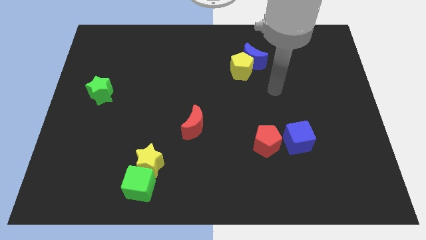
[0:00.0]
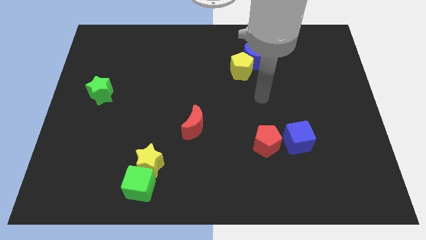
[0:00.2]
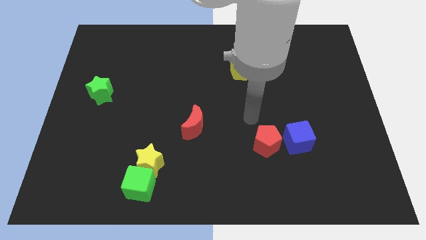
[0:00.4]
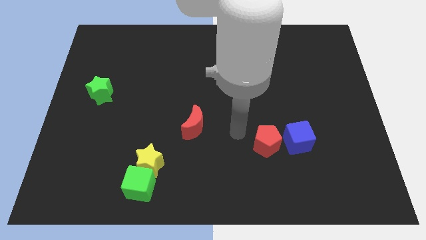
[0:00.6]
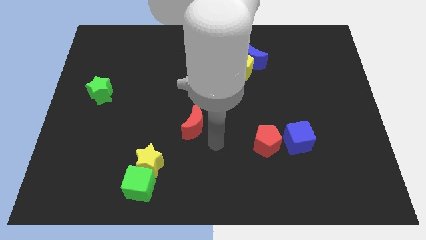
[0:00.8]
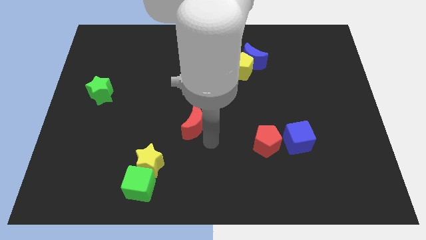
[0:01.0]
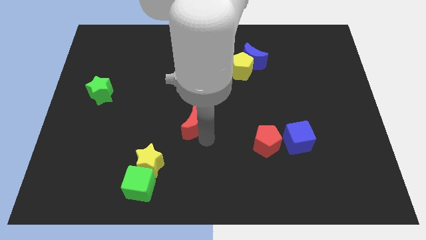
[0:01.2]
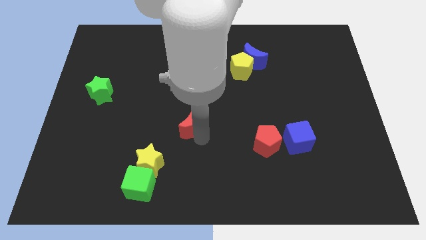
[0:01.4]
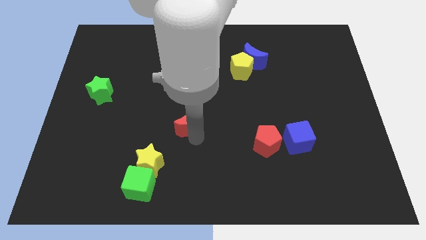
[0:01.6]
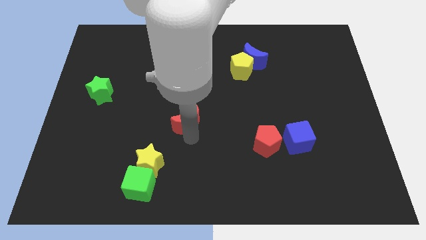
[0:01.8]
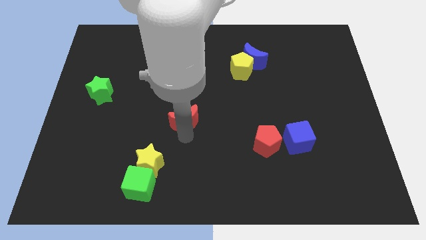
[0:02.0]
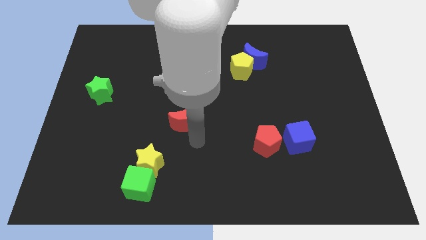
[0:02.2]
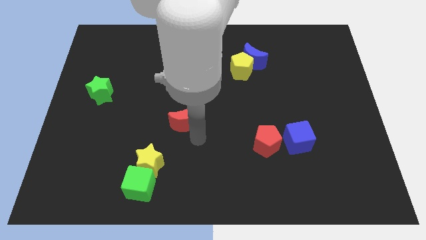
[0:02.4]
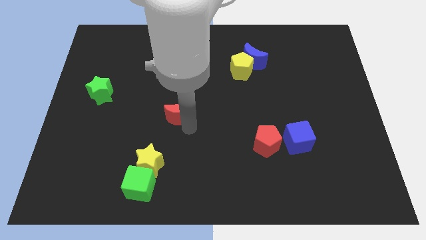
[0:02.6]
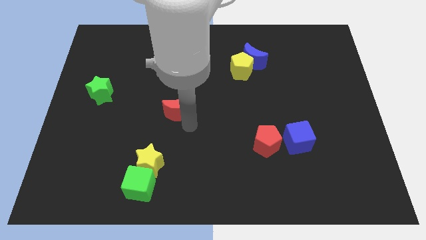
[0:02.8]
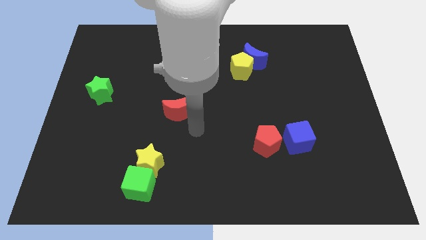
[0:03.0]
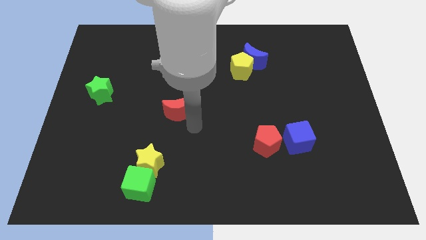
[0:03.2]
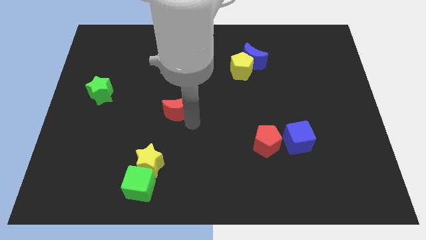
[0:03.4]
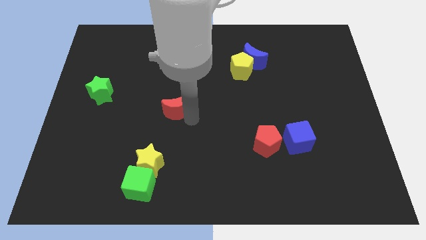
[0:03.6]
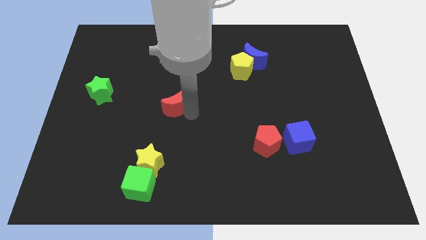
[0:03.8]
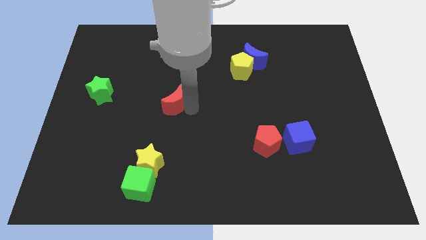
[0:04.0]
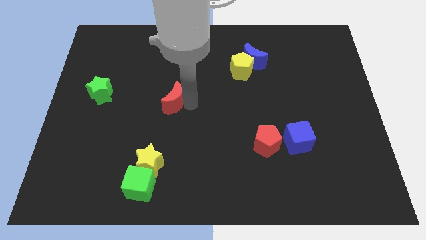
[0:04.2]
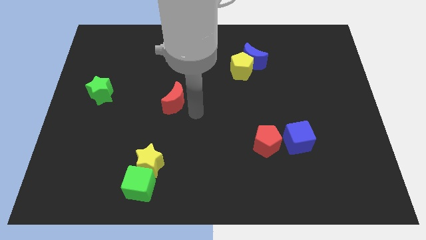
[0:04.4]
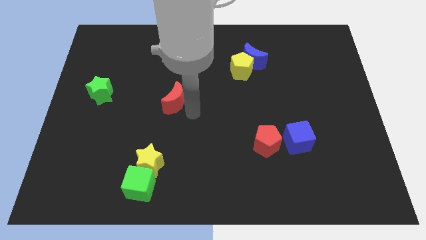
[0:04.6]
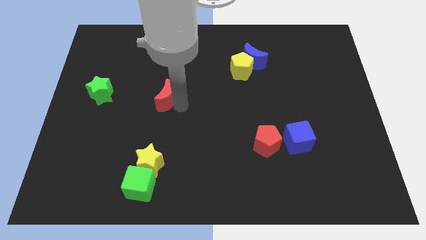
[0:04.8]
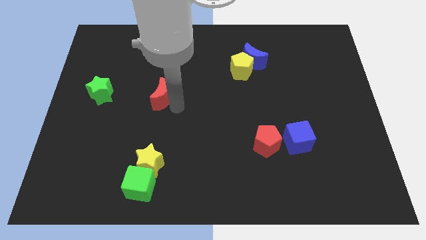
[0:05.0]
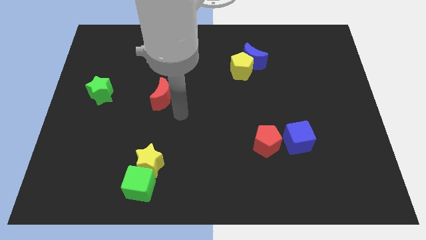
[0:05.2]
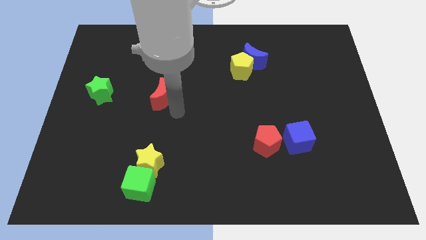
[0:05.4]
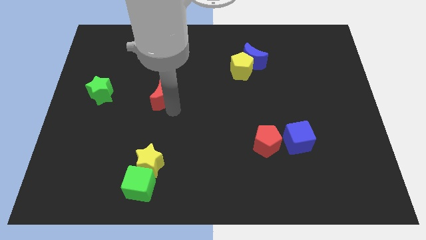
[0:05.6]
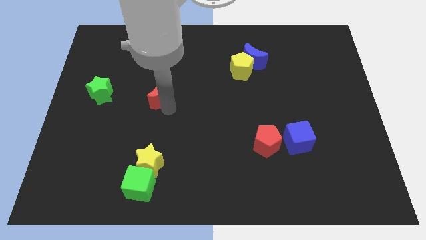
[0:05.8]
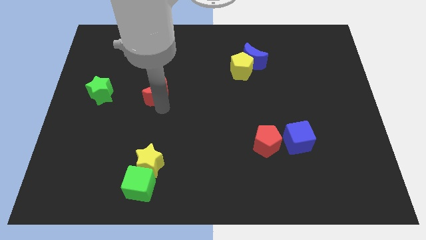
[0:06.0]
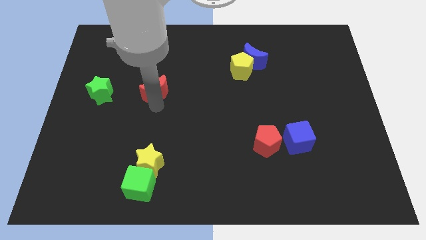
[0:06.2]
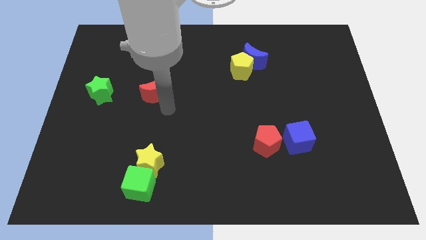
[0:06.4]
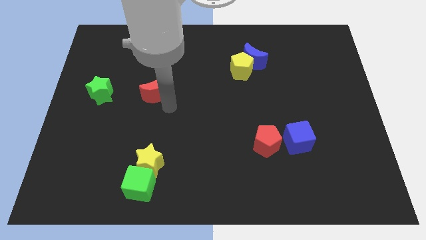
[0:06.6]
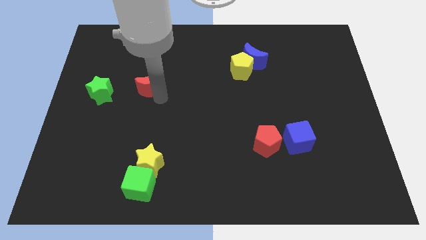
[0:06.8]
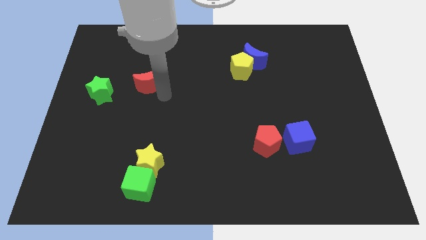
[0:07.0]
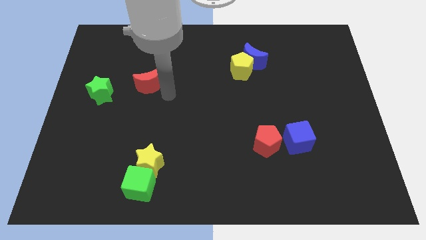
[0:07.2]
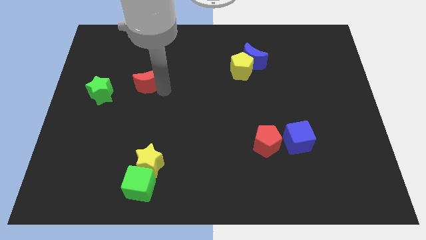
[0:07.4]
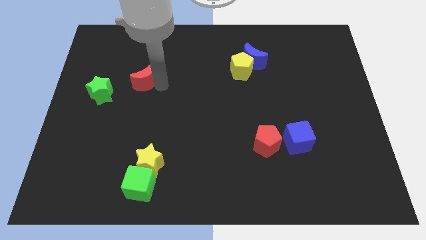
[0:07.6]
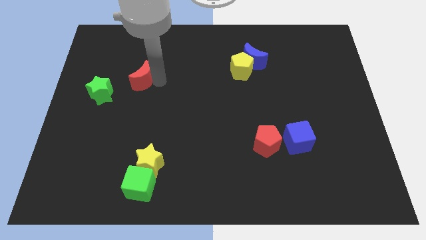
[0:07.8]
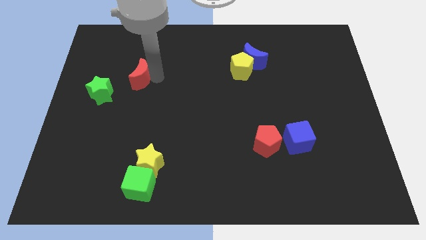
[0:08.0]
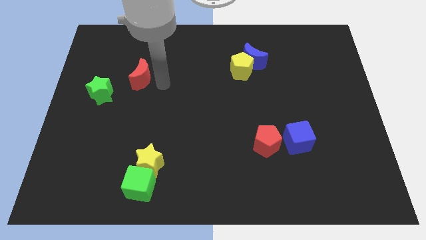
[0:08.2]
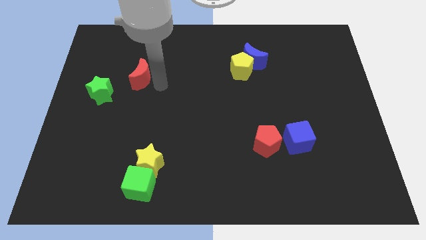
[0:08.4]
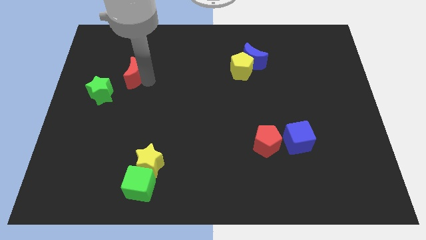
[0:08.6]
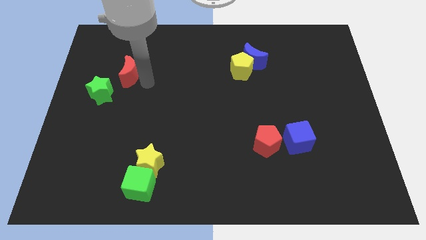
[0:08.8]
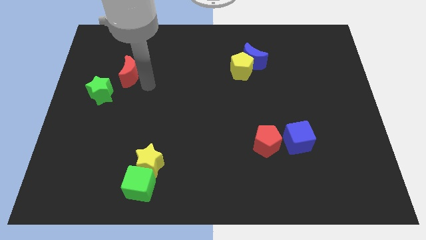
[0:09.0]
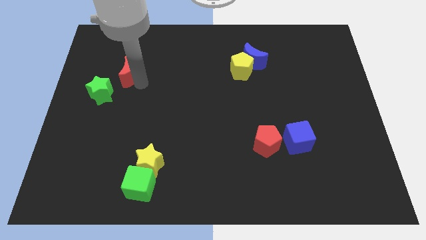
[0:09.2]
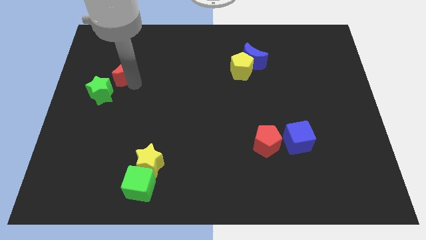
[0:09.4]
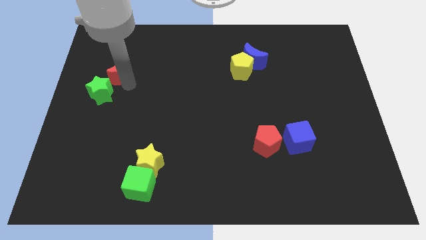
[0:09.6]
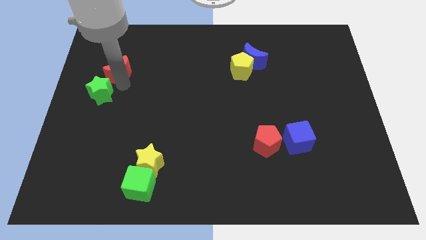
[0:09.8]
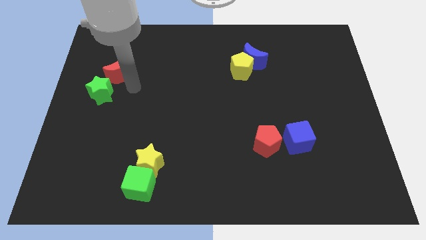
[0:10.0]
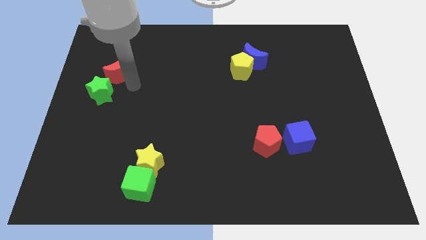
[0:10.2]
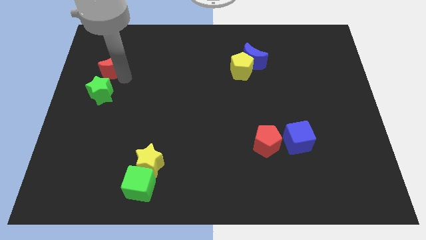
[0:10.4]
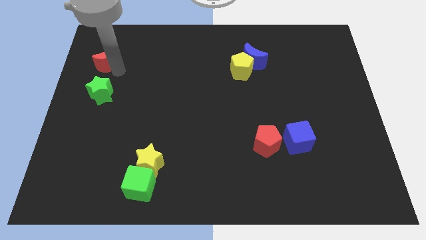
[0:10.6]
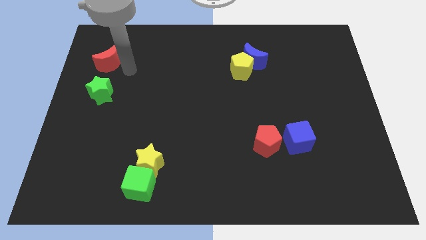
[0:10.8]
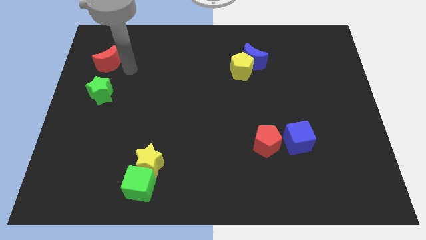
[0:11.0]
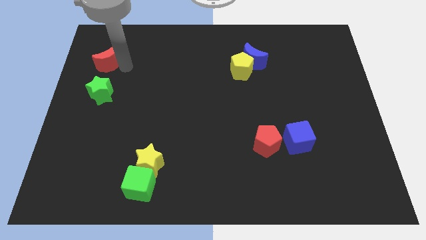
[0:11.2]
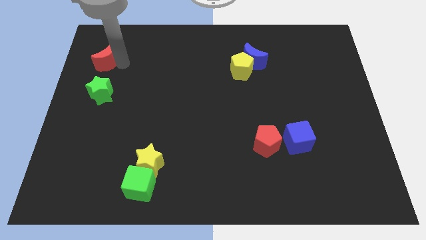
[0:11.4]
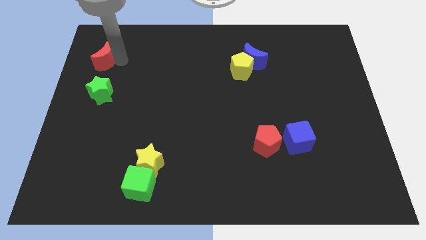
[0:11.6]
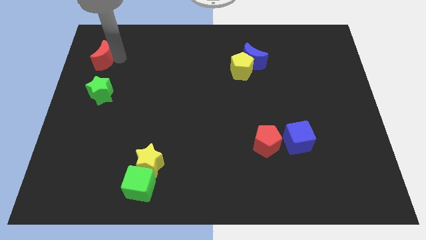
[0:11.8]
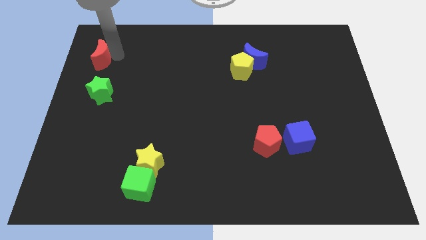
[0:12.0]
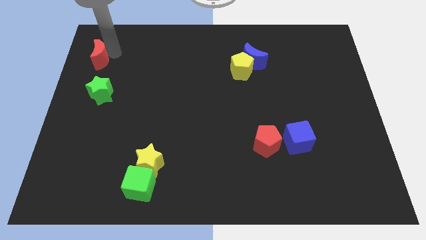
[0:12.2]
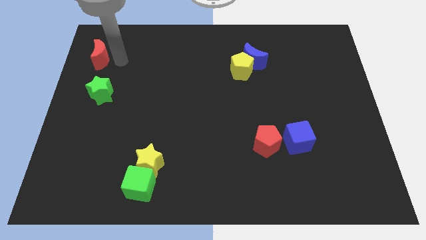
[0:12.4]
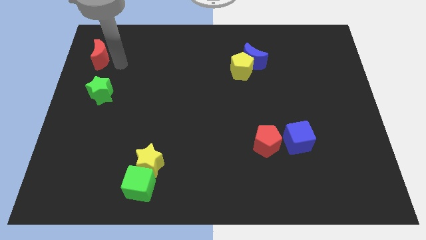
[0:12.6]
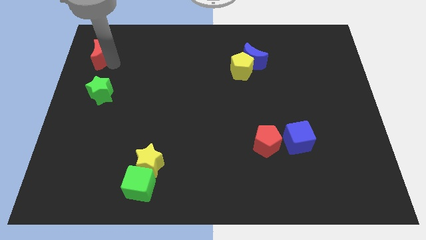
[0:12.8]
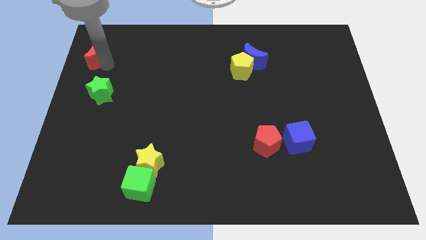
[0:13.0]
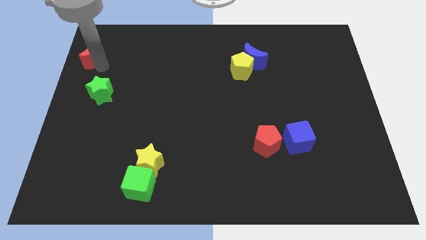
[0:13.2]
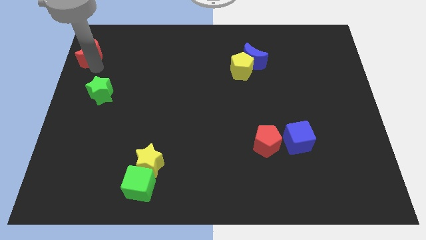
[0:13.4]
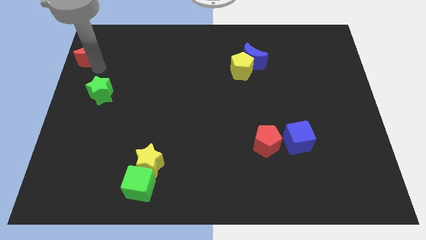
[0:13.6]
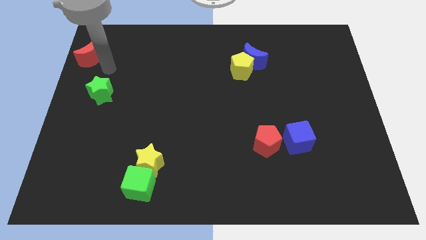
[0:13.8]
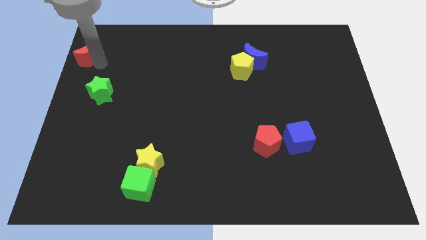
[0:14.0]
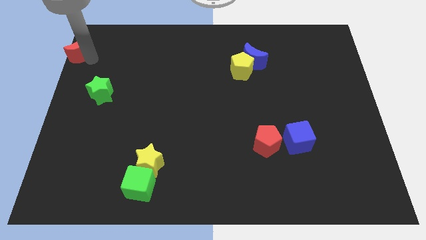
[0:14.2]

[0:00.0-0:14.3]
slide the red moon to the top left corner

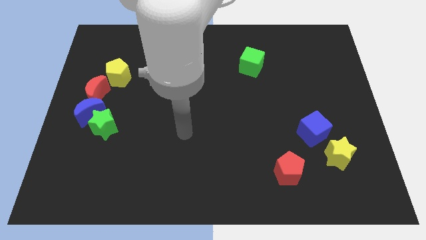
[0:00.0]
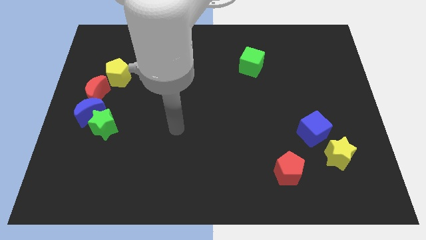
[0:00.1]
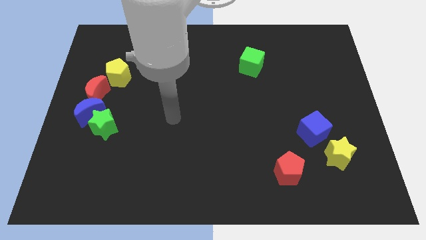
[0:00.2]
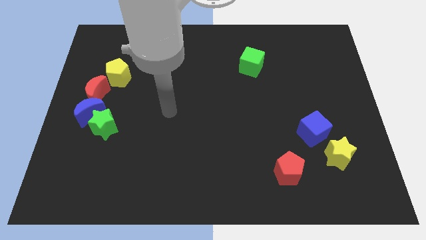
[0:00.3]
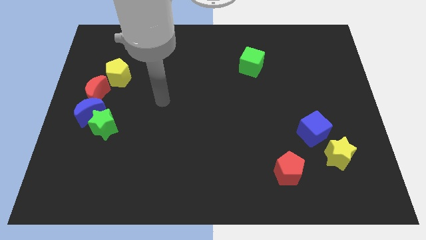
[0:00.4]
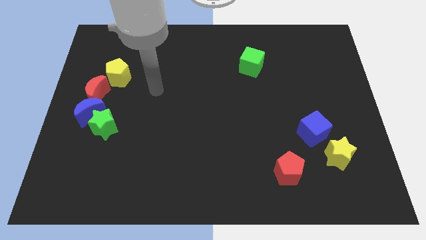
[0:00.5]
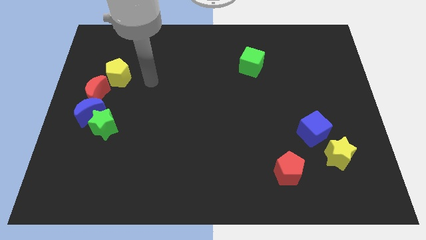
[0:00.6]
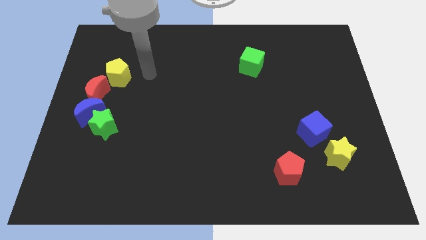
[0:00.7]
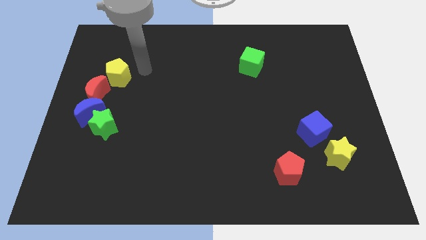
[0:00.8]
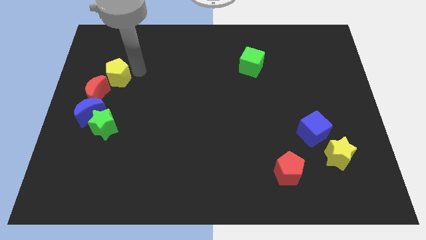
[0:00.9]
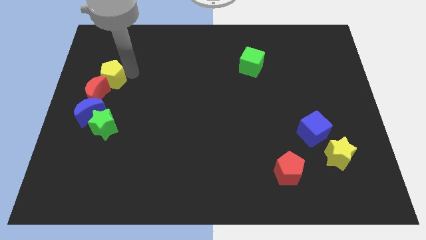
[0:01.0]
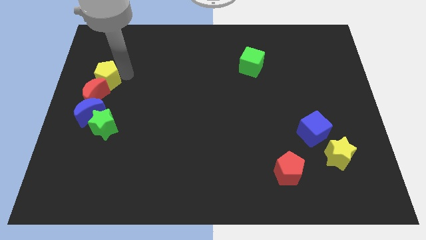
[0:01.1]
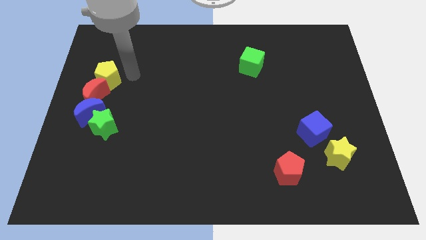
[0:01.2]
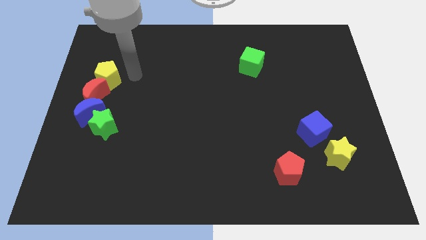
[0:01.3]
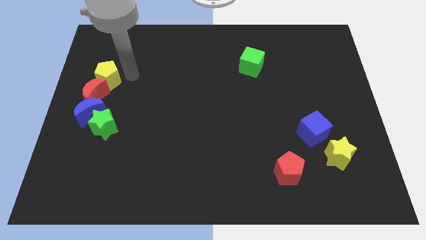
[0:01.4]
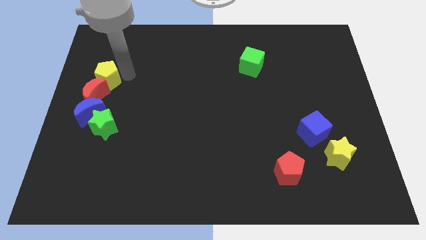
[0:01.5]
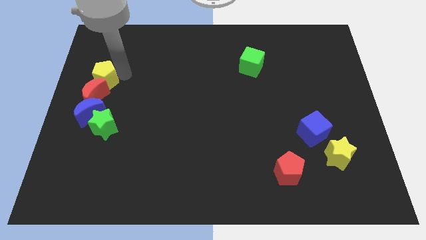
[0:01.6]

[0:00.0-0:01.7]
push the yellow pentagon to the left side
